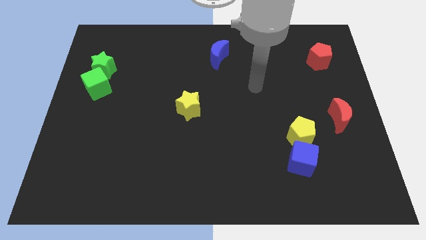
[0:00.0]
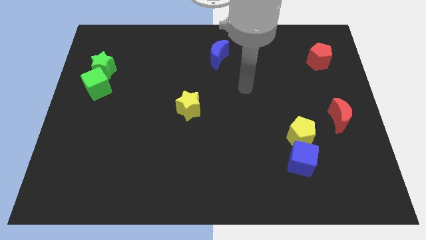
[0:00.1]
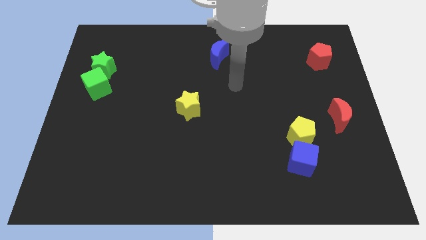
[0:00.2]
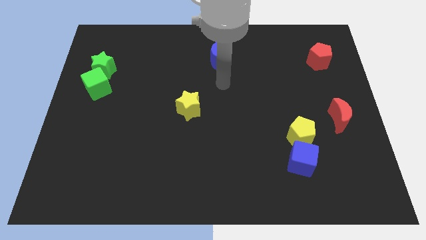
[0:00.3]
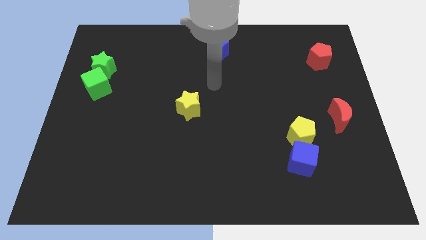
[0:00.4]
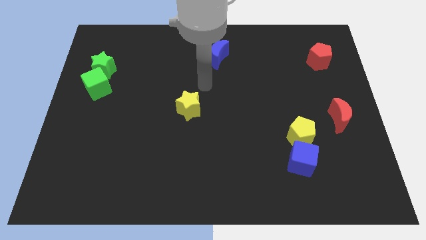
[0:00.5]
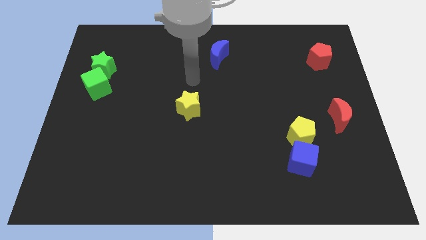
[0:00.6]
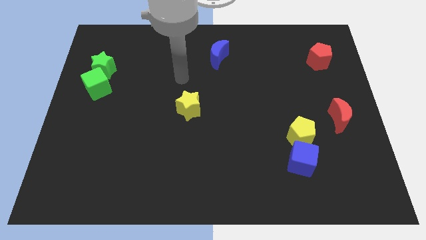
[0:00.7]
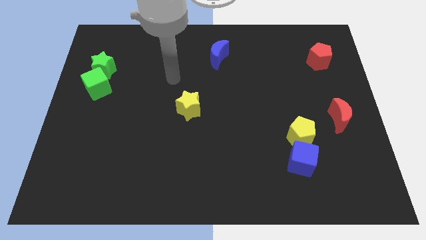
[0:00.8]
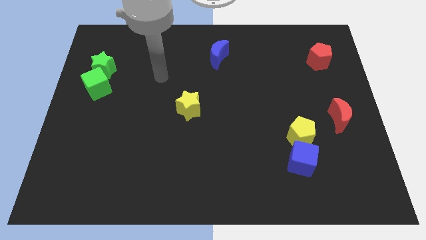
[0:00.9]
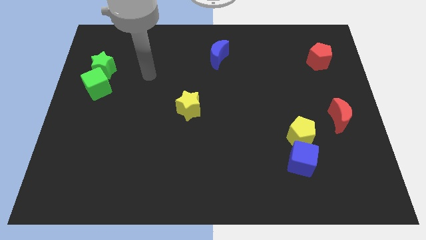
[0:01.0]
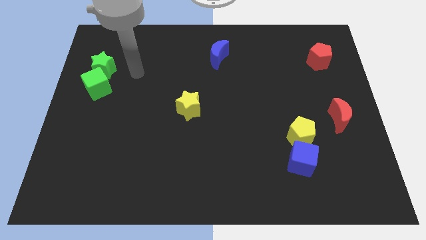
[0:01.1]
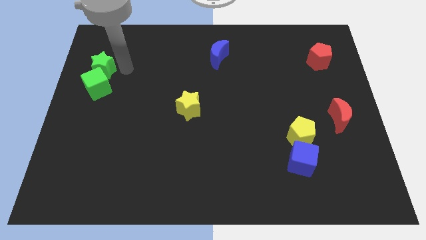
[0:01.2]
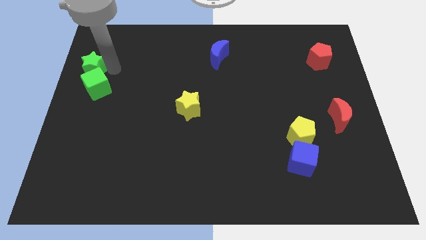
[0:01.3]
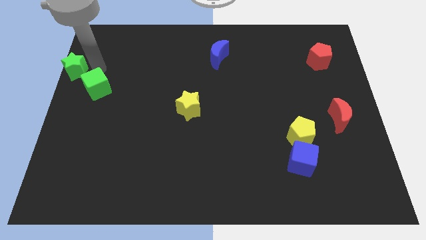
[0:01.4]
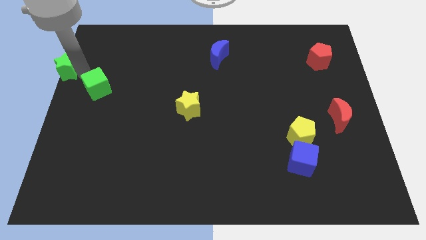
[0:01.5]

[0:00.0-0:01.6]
separate the green cube from the green star

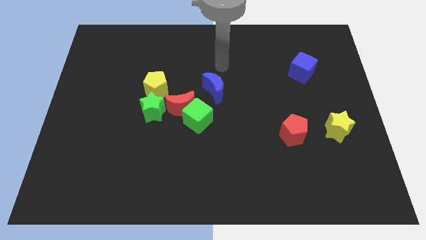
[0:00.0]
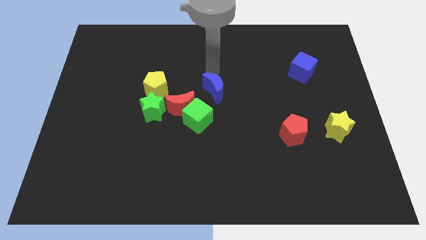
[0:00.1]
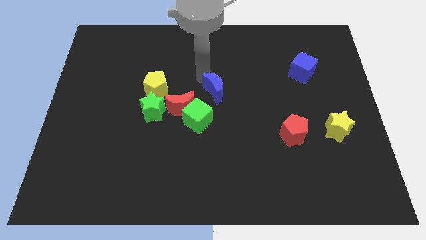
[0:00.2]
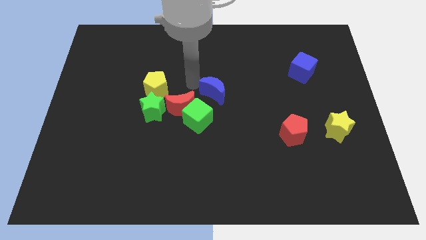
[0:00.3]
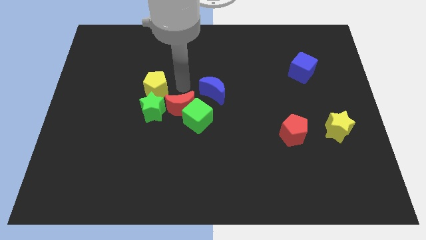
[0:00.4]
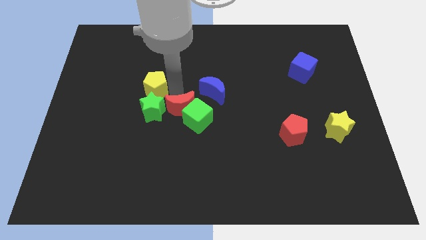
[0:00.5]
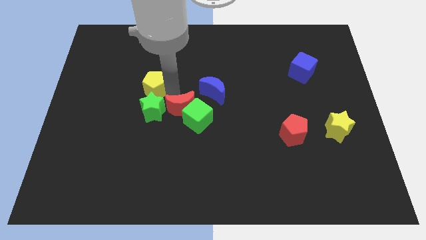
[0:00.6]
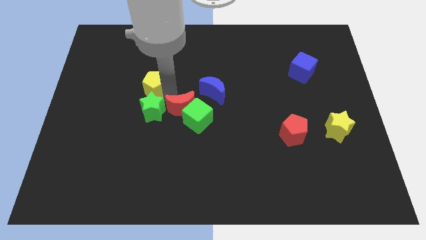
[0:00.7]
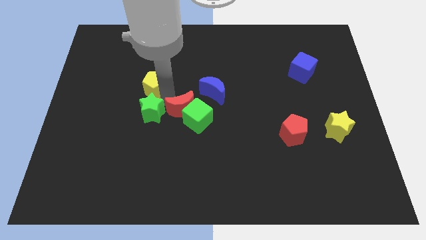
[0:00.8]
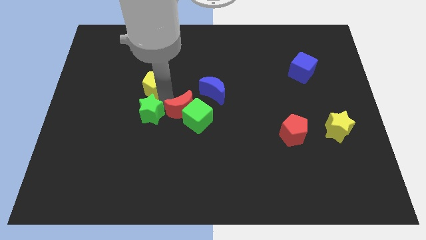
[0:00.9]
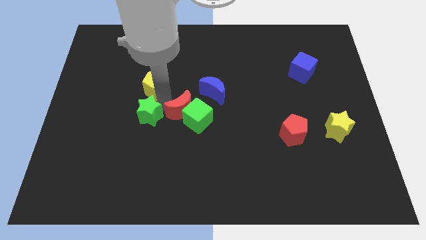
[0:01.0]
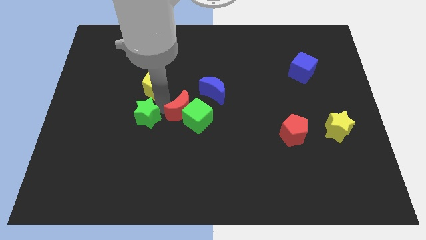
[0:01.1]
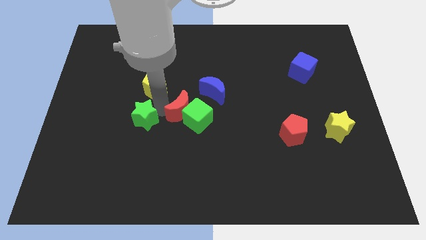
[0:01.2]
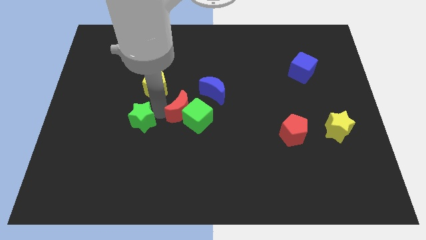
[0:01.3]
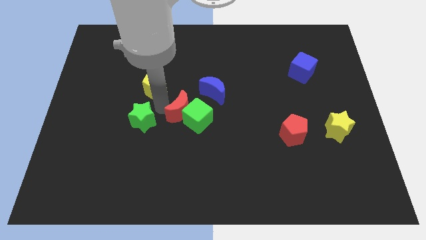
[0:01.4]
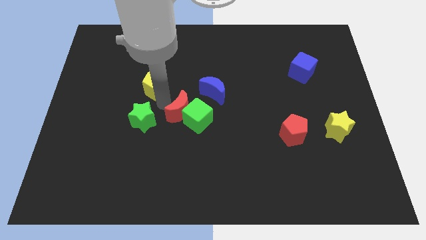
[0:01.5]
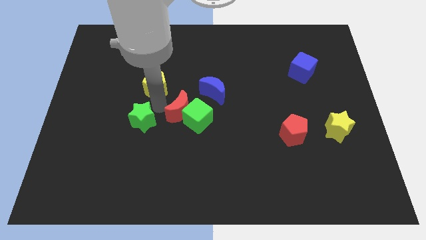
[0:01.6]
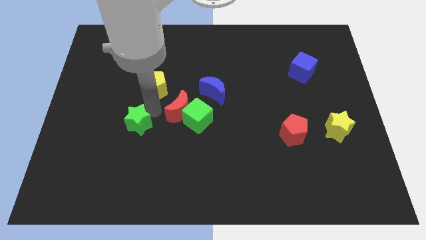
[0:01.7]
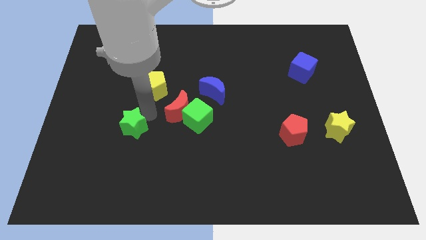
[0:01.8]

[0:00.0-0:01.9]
separate the green star from the yellow pentagon and red moon

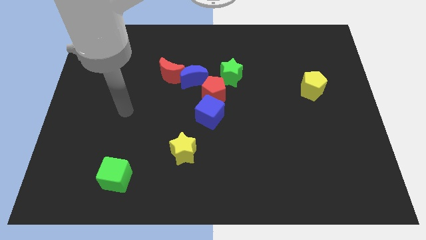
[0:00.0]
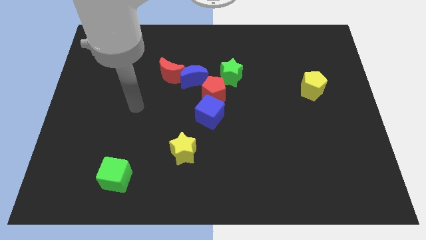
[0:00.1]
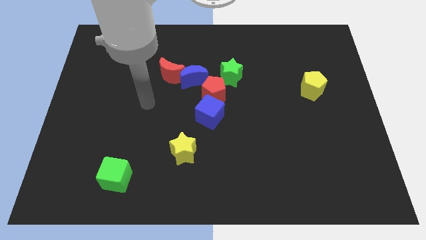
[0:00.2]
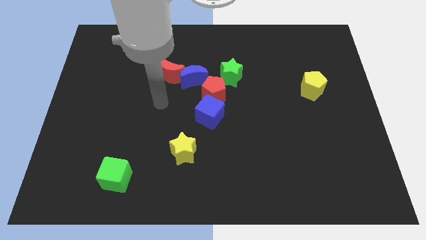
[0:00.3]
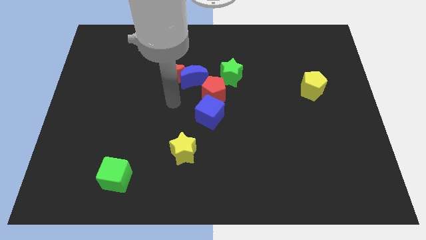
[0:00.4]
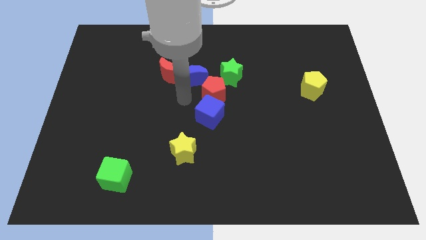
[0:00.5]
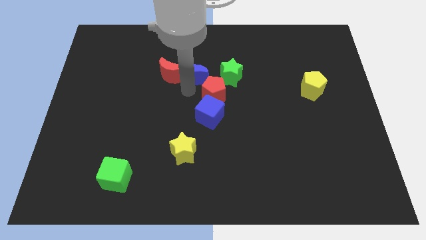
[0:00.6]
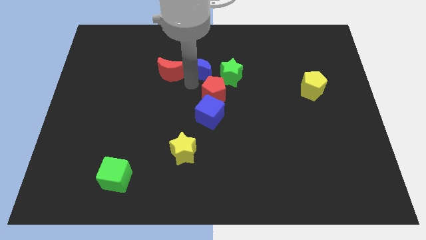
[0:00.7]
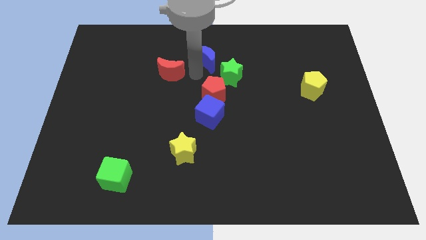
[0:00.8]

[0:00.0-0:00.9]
pull the red moon apart from the blue moon

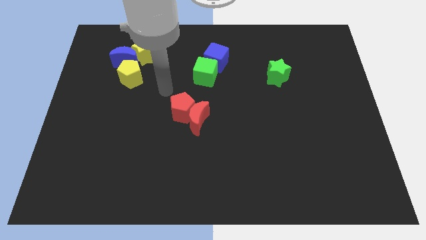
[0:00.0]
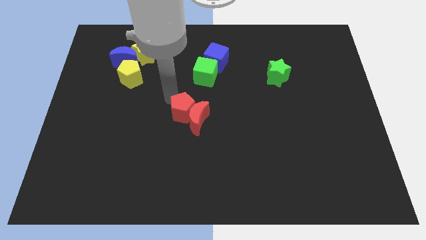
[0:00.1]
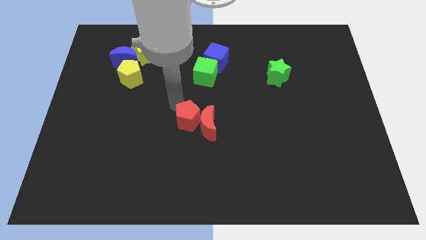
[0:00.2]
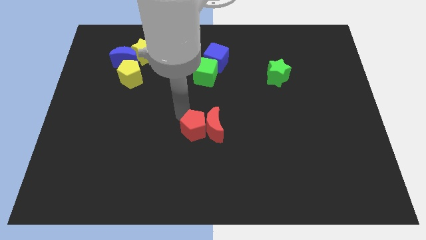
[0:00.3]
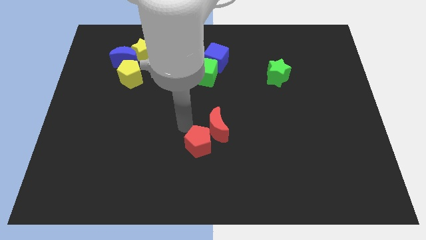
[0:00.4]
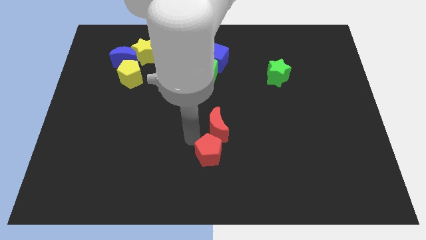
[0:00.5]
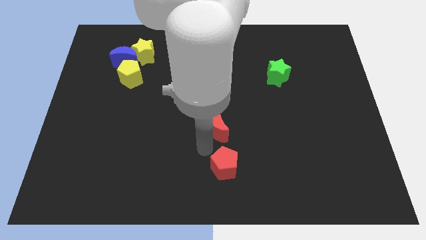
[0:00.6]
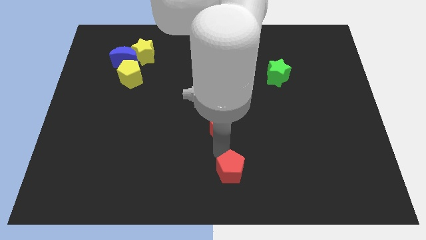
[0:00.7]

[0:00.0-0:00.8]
move the red moon away from the red pentagon

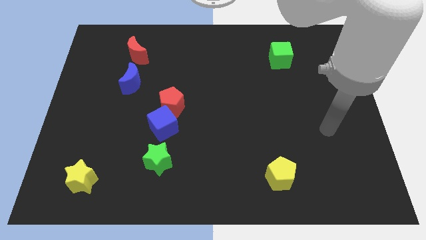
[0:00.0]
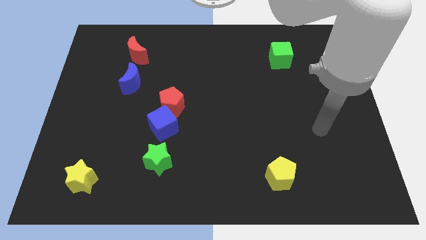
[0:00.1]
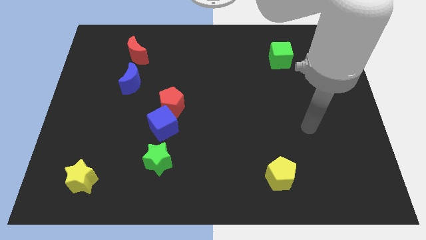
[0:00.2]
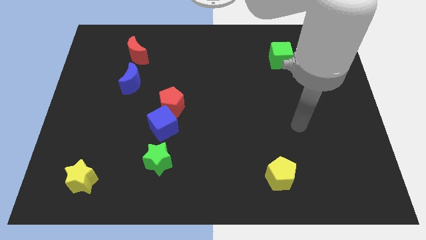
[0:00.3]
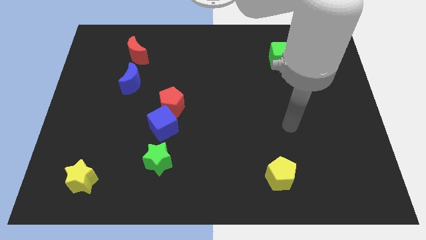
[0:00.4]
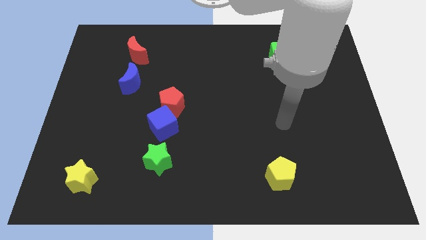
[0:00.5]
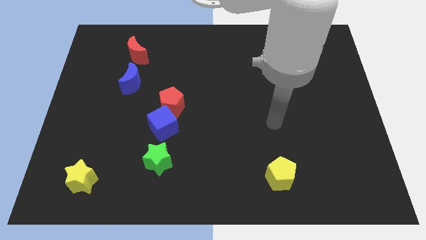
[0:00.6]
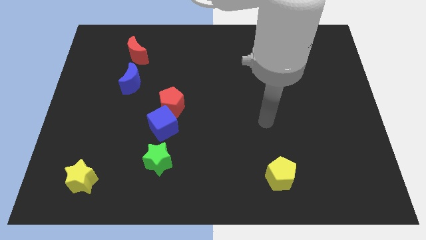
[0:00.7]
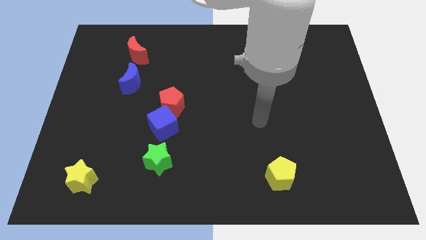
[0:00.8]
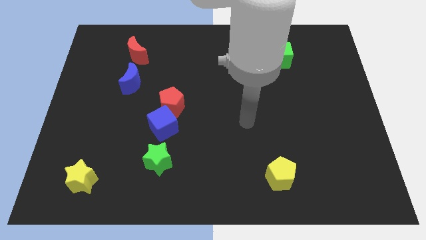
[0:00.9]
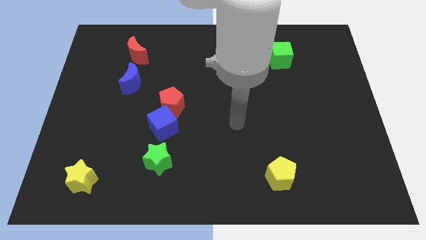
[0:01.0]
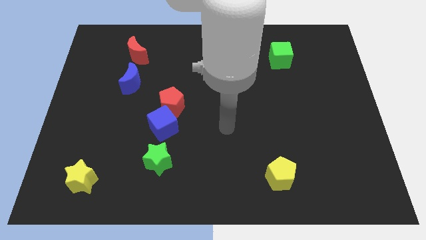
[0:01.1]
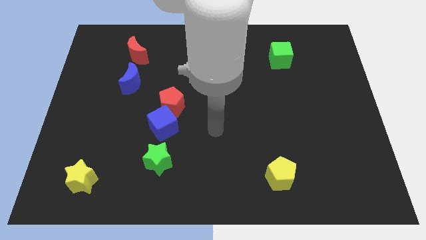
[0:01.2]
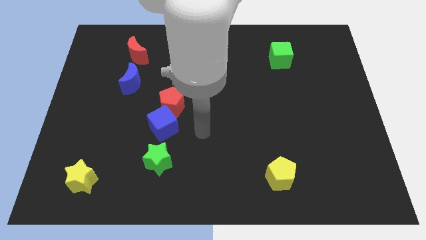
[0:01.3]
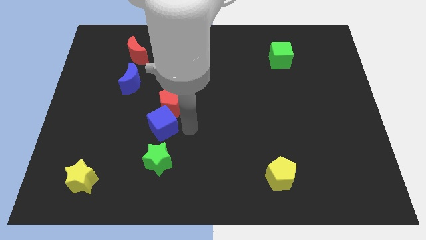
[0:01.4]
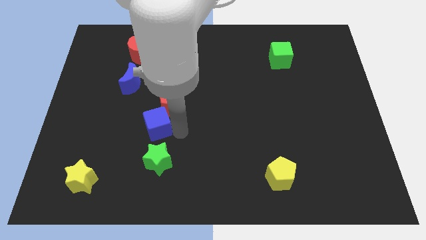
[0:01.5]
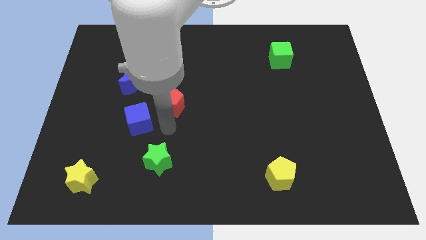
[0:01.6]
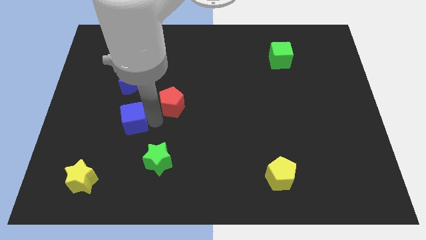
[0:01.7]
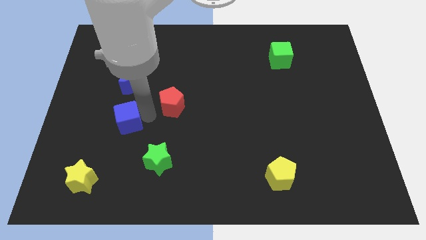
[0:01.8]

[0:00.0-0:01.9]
separate the red pentagon from the blue cube

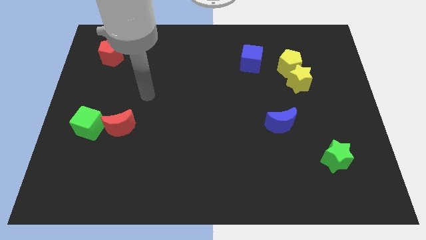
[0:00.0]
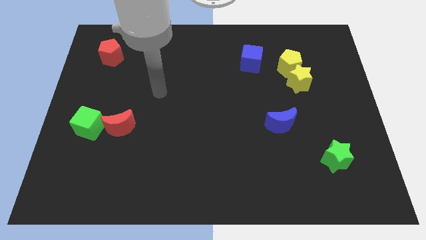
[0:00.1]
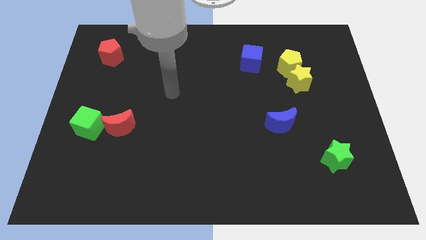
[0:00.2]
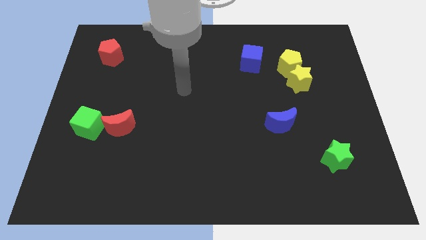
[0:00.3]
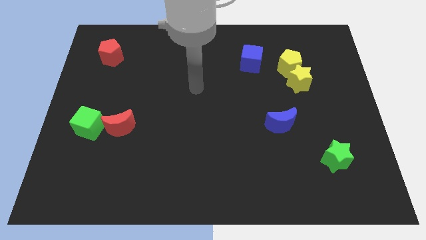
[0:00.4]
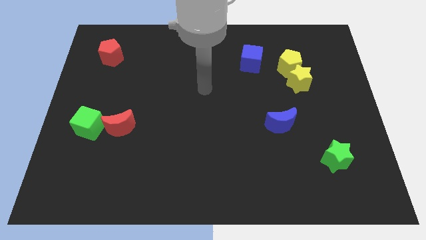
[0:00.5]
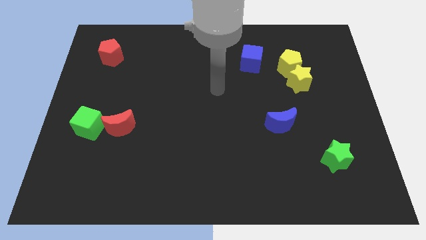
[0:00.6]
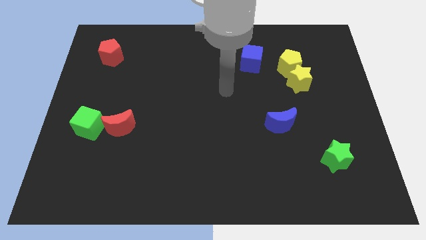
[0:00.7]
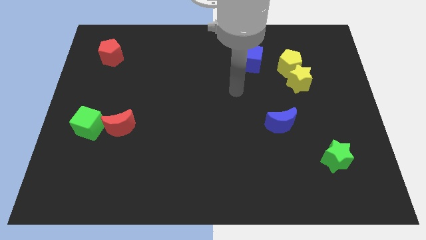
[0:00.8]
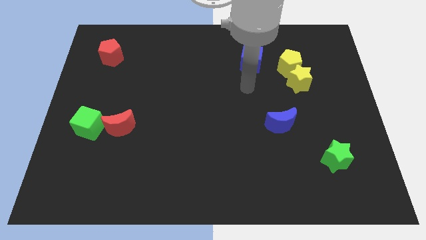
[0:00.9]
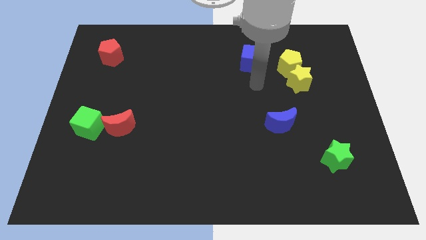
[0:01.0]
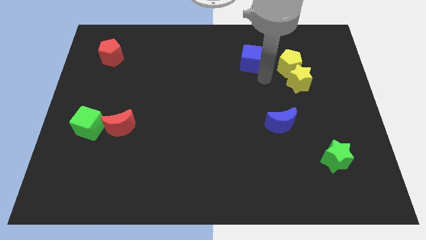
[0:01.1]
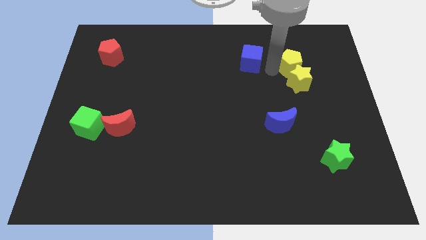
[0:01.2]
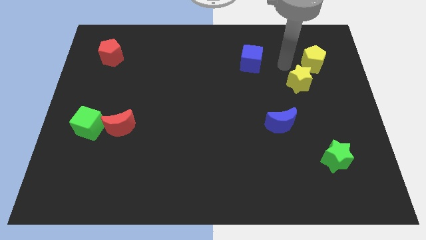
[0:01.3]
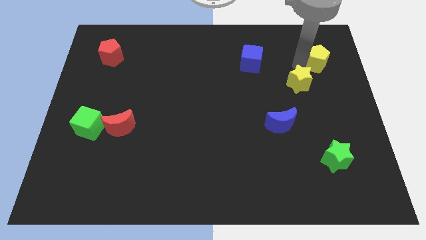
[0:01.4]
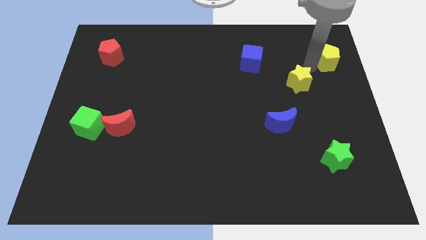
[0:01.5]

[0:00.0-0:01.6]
pull the yellow star apart from the yellow pentagon

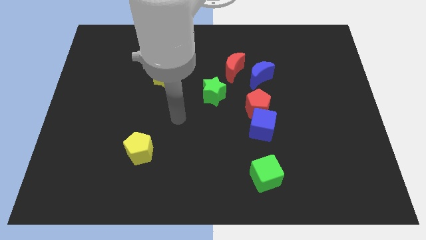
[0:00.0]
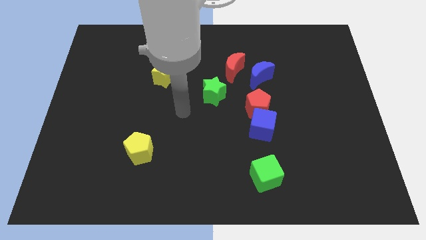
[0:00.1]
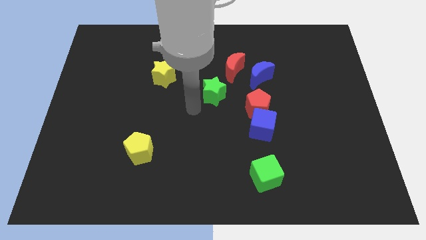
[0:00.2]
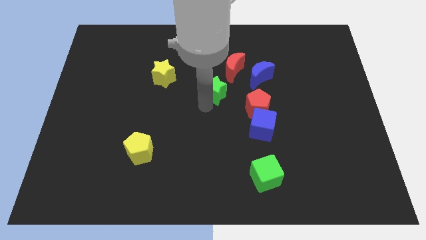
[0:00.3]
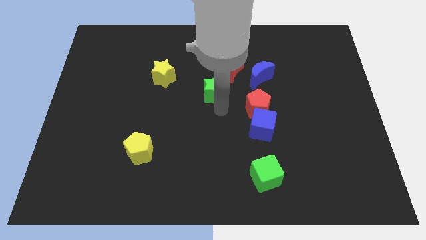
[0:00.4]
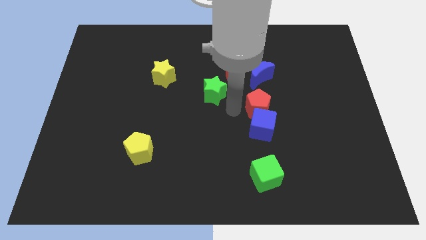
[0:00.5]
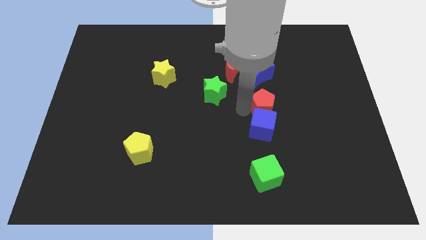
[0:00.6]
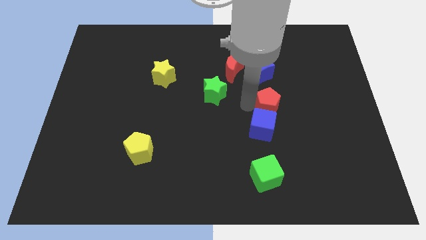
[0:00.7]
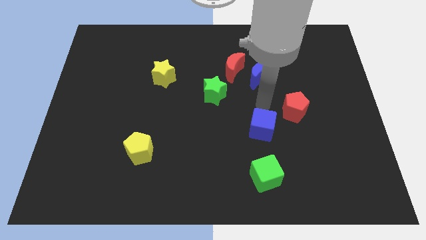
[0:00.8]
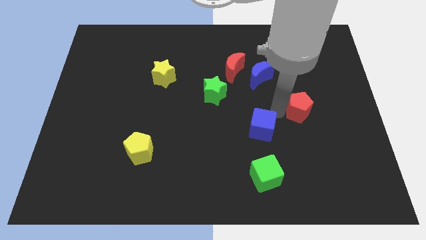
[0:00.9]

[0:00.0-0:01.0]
move the blue cube away from the red pentagon
